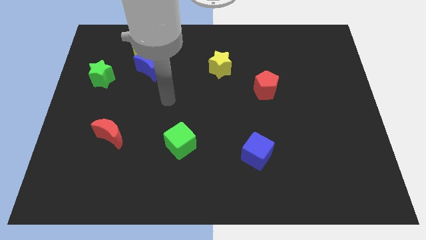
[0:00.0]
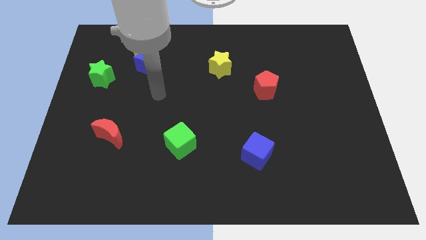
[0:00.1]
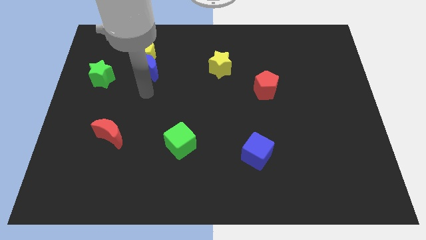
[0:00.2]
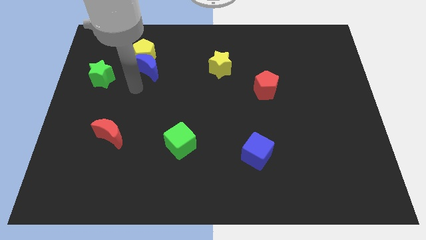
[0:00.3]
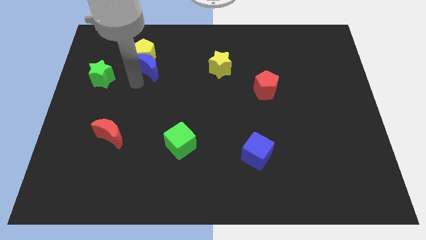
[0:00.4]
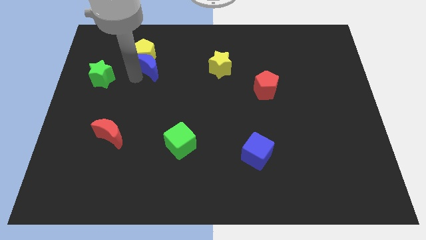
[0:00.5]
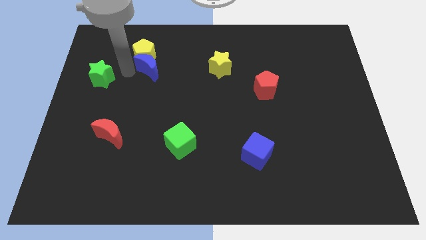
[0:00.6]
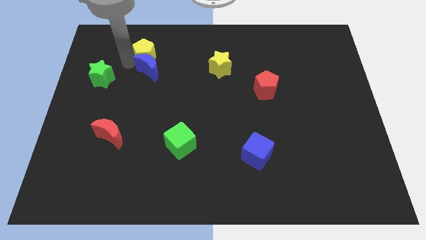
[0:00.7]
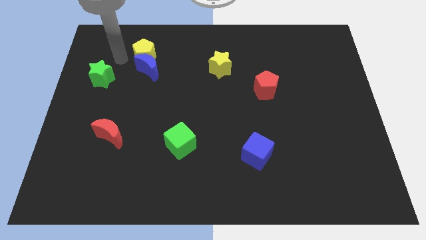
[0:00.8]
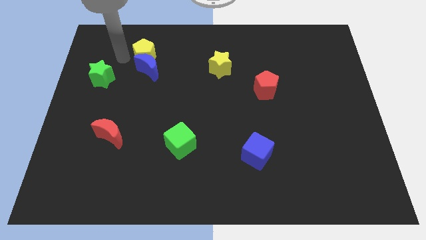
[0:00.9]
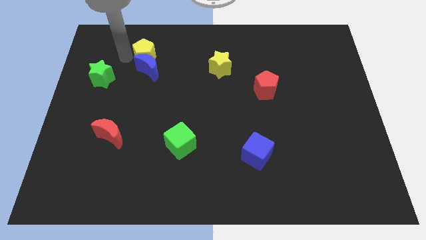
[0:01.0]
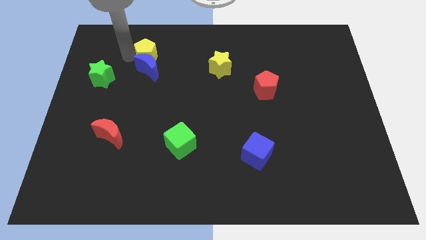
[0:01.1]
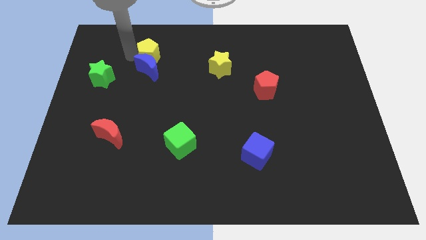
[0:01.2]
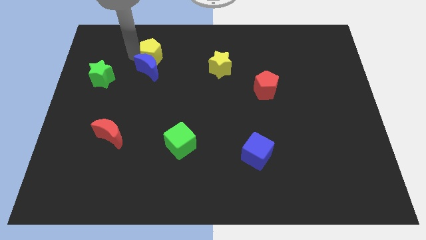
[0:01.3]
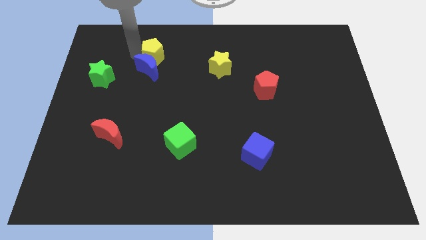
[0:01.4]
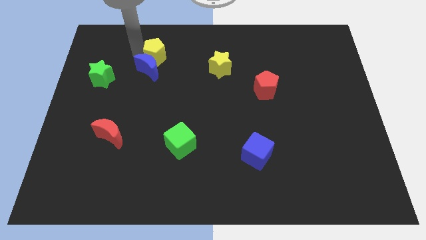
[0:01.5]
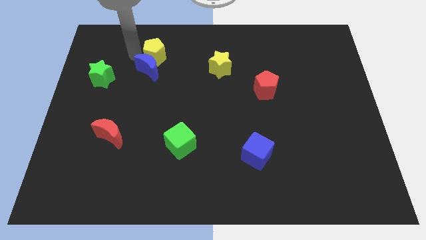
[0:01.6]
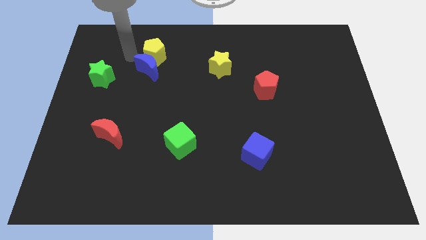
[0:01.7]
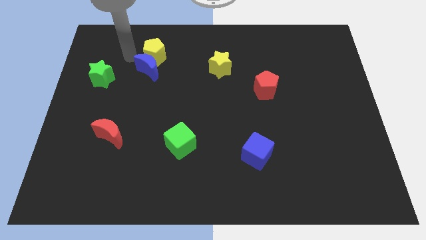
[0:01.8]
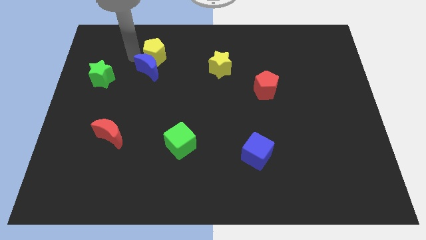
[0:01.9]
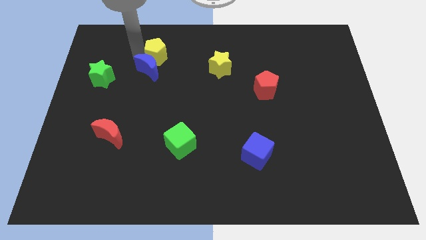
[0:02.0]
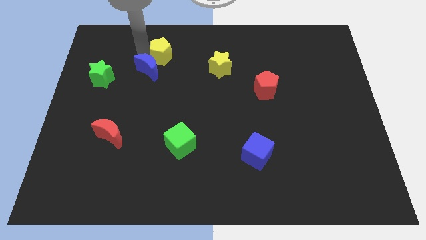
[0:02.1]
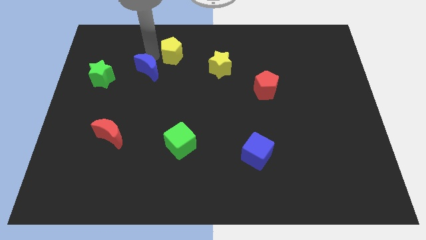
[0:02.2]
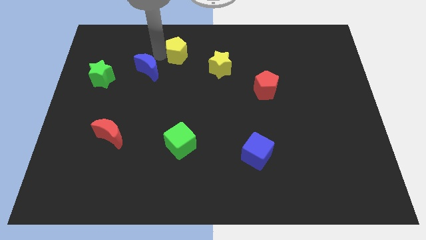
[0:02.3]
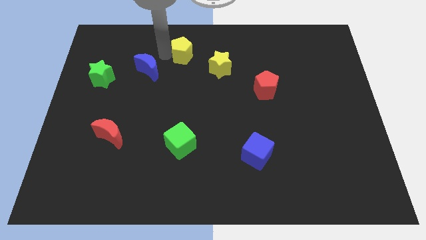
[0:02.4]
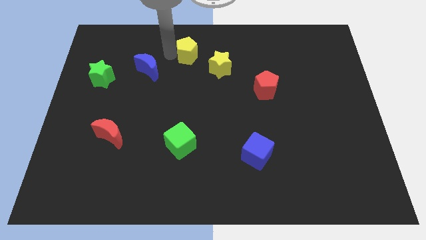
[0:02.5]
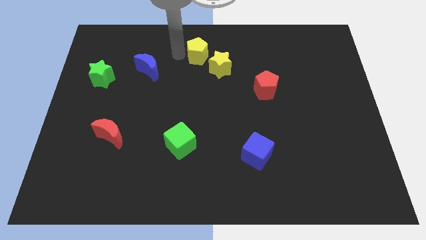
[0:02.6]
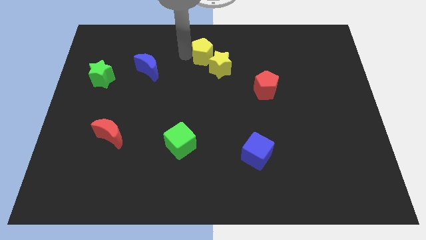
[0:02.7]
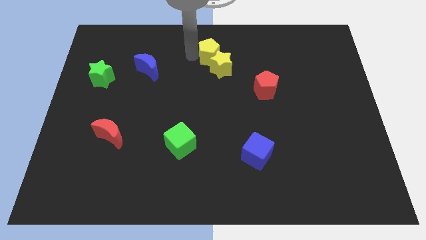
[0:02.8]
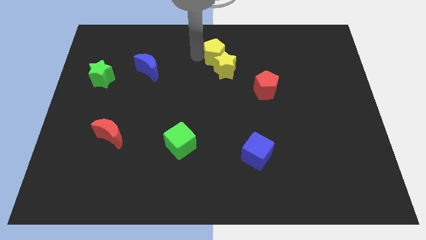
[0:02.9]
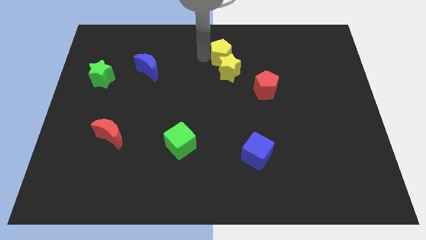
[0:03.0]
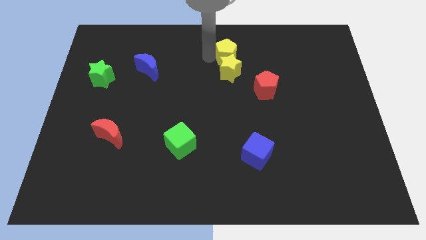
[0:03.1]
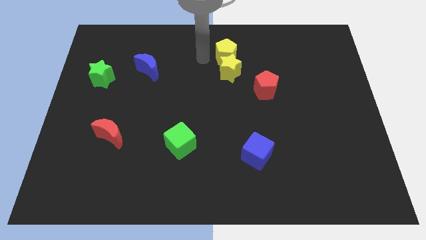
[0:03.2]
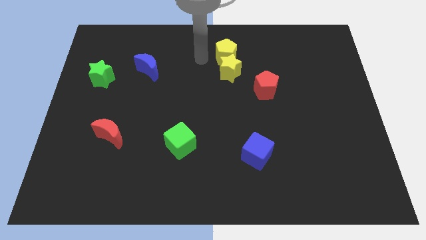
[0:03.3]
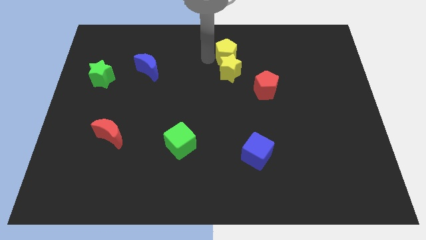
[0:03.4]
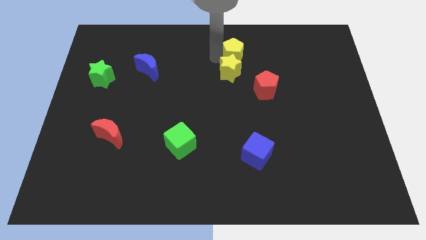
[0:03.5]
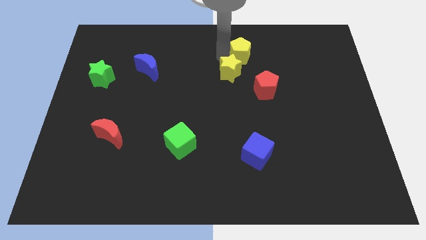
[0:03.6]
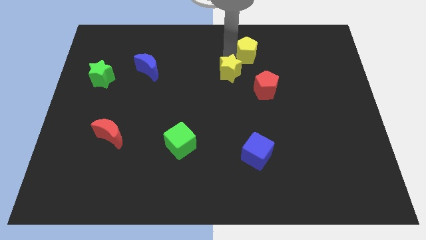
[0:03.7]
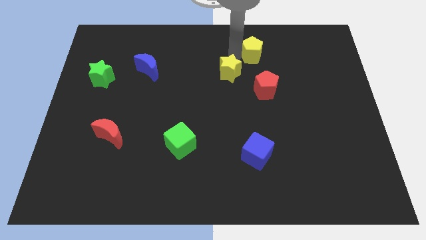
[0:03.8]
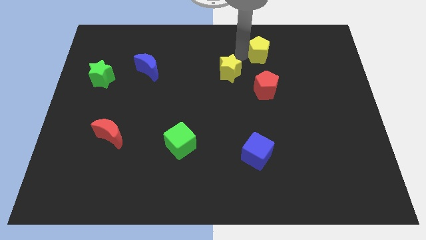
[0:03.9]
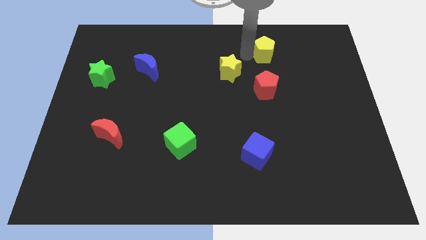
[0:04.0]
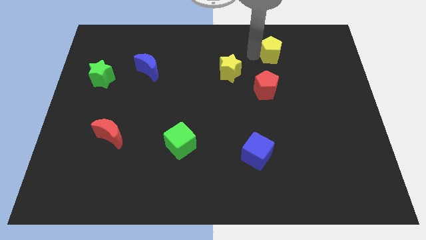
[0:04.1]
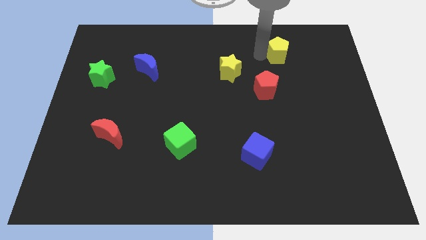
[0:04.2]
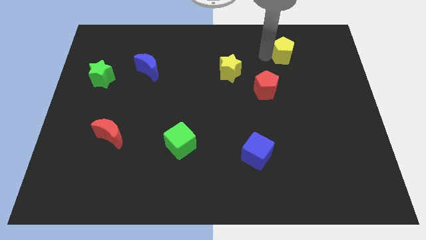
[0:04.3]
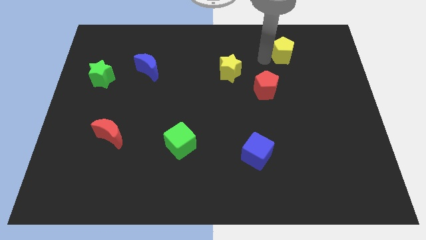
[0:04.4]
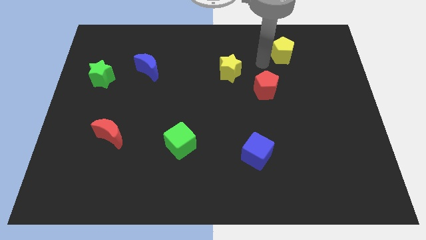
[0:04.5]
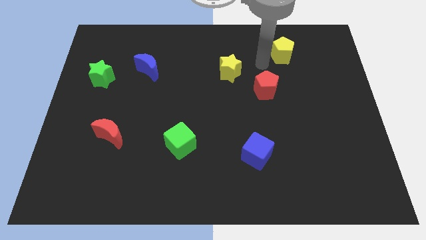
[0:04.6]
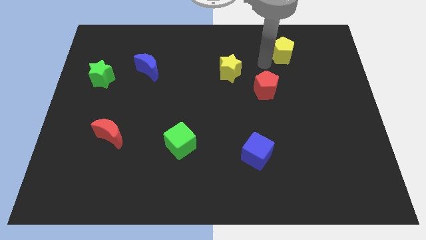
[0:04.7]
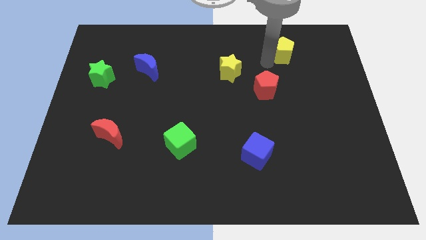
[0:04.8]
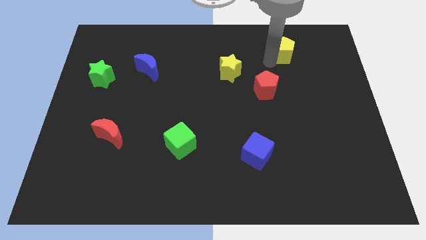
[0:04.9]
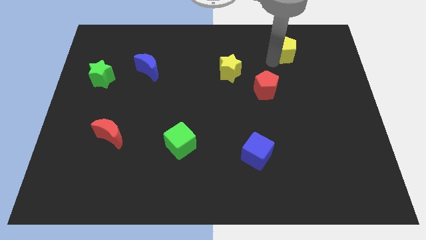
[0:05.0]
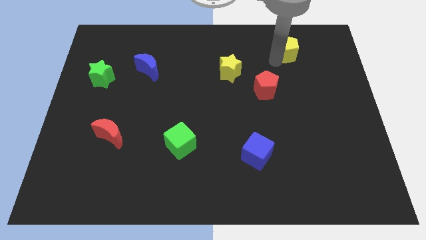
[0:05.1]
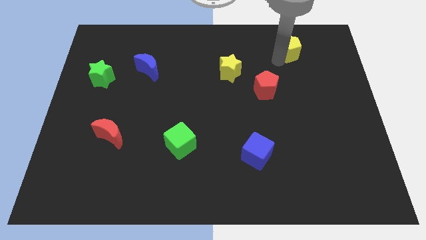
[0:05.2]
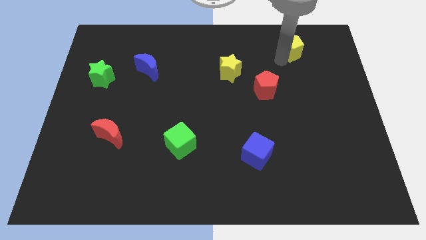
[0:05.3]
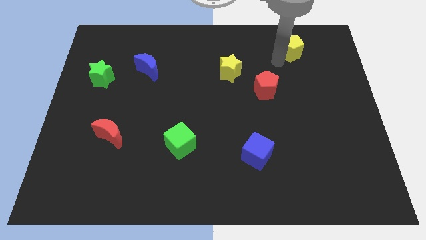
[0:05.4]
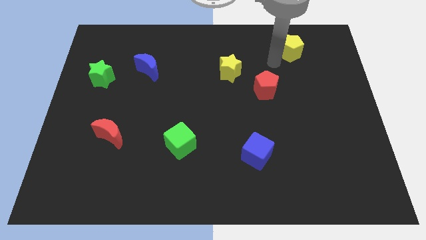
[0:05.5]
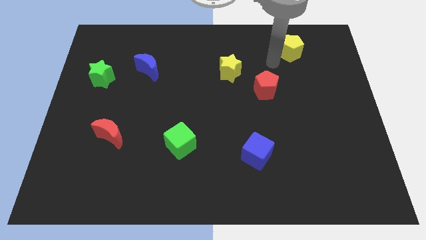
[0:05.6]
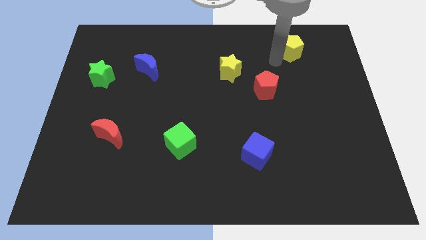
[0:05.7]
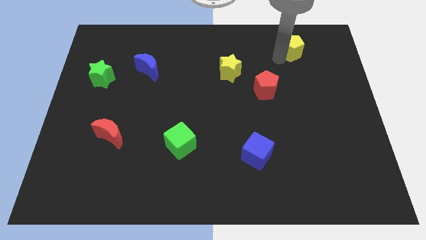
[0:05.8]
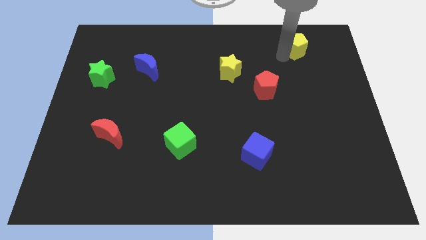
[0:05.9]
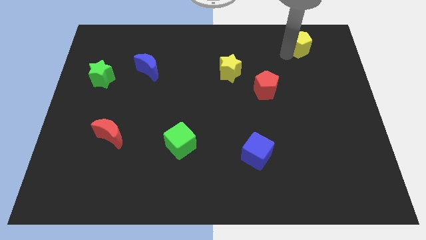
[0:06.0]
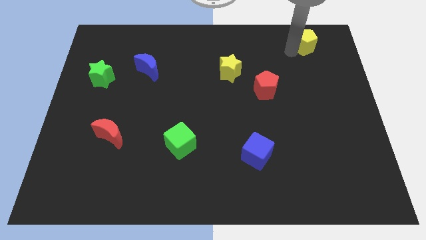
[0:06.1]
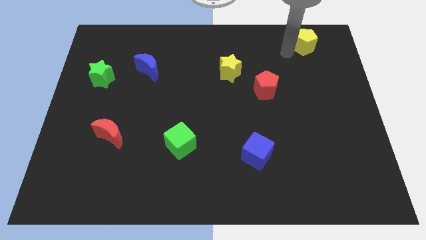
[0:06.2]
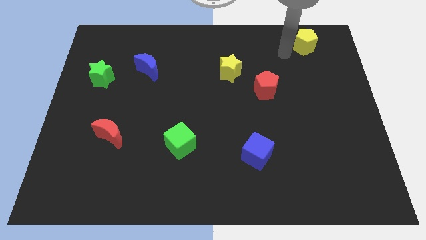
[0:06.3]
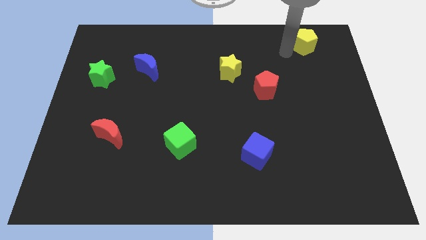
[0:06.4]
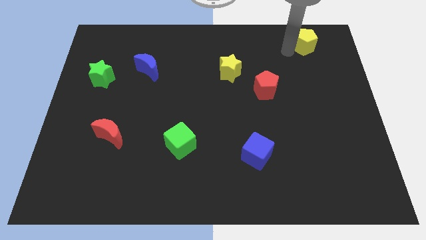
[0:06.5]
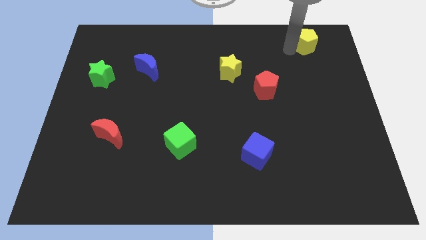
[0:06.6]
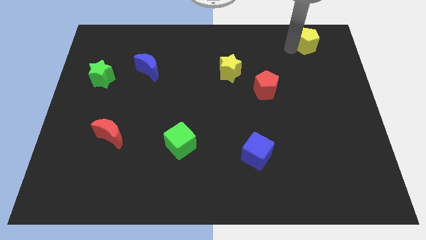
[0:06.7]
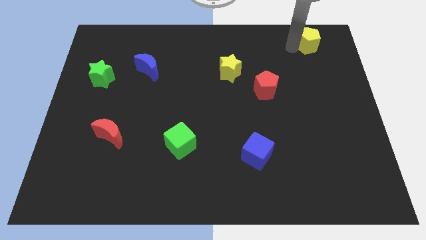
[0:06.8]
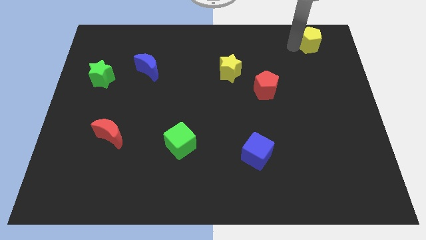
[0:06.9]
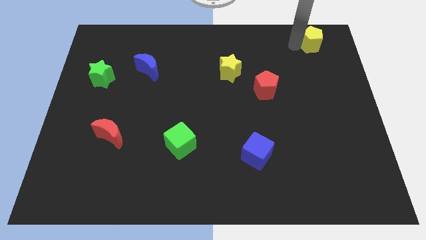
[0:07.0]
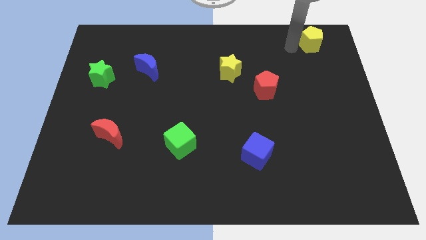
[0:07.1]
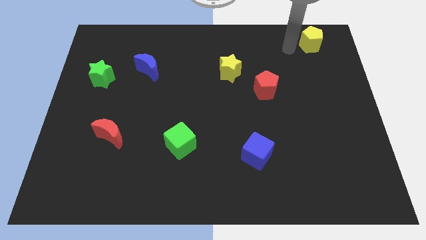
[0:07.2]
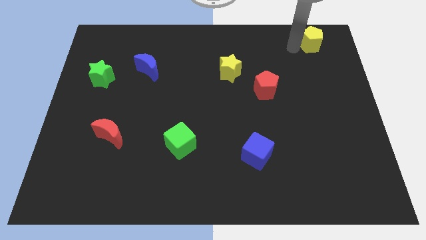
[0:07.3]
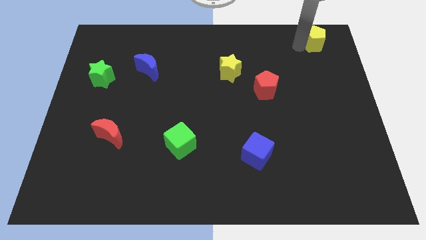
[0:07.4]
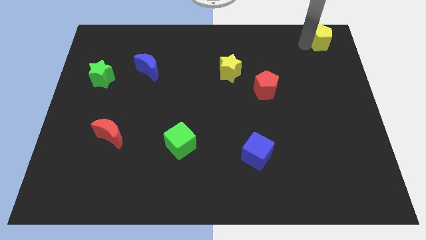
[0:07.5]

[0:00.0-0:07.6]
put the yellow pentagon to the upper right corner
